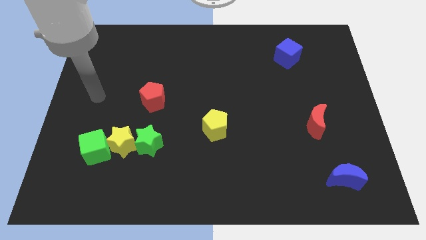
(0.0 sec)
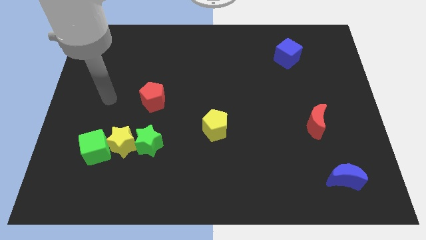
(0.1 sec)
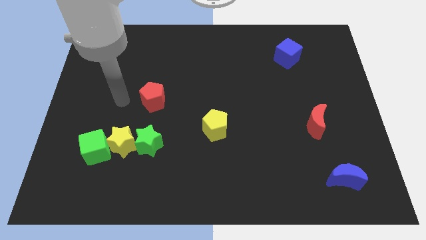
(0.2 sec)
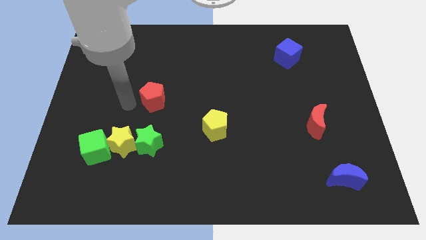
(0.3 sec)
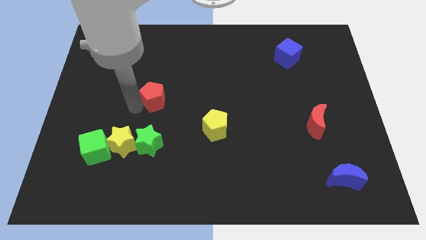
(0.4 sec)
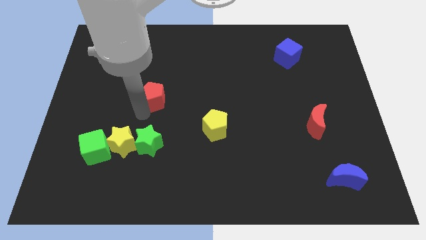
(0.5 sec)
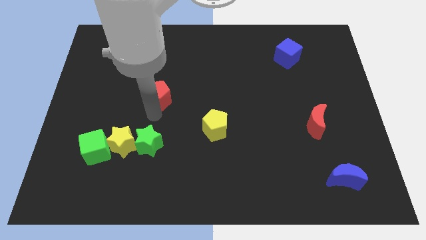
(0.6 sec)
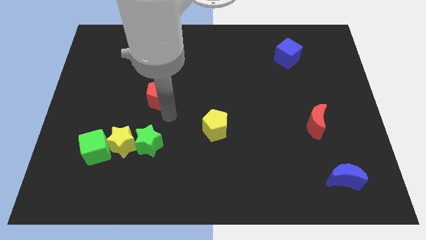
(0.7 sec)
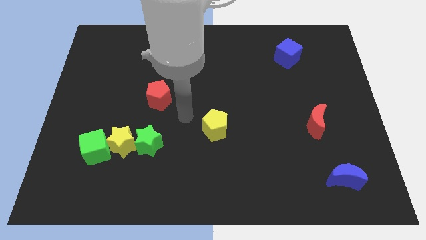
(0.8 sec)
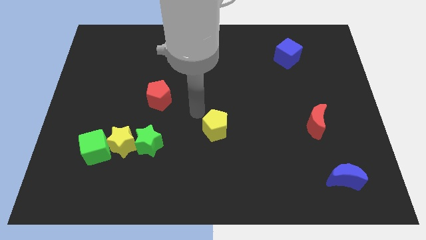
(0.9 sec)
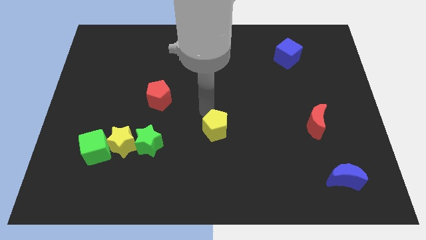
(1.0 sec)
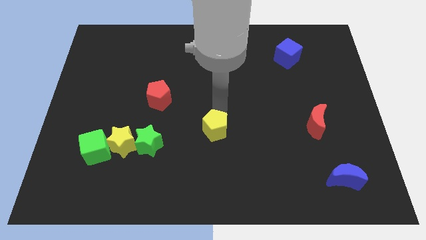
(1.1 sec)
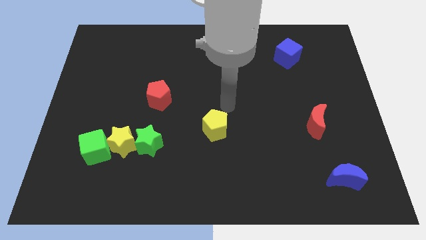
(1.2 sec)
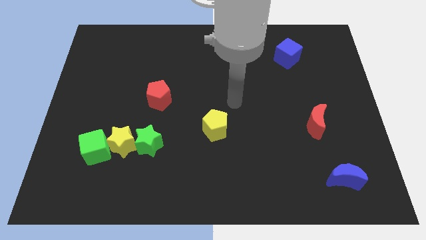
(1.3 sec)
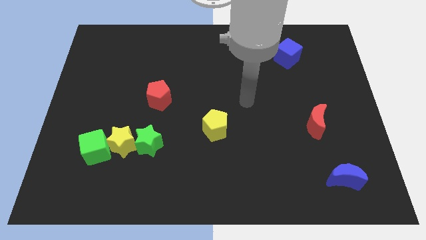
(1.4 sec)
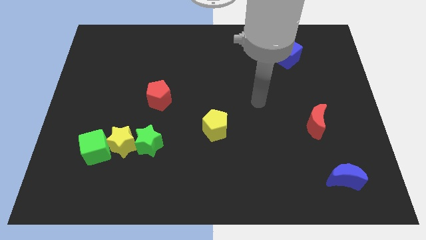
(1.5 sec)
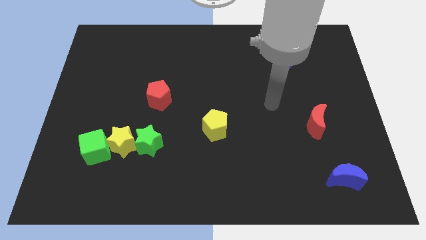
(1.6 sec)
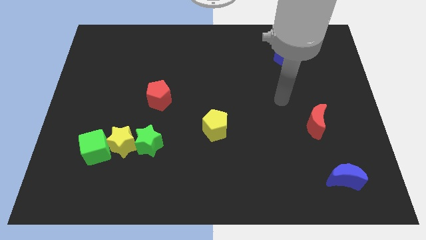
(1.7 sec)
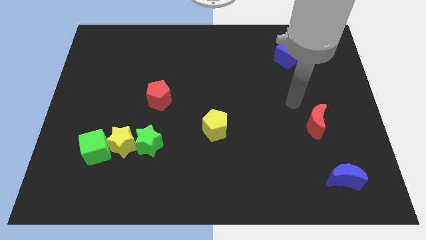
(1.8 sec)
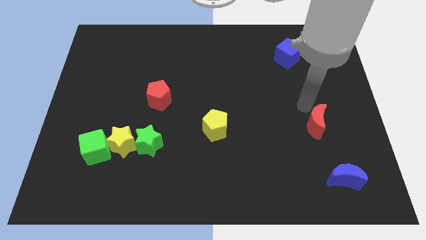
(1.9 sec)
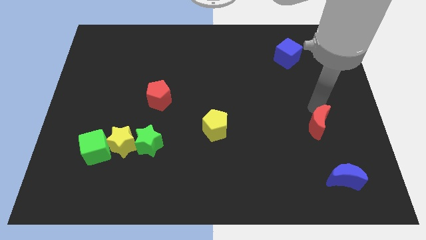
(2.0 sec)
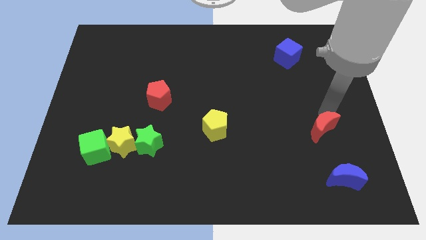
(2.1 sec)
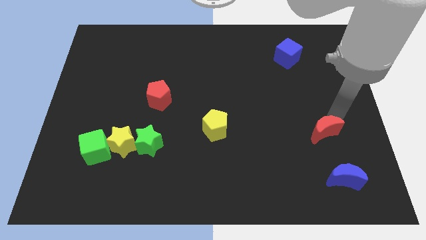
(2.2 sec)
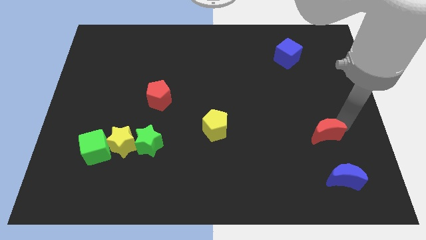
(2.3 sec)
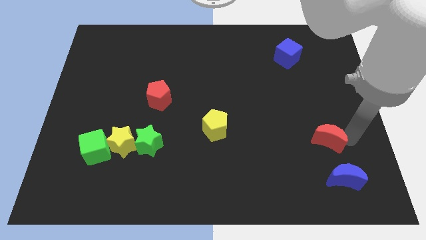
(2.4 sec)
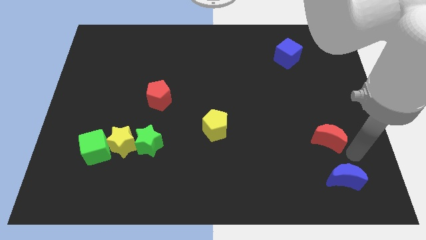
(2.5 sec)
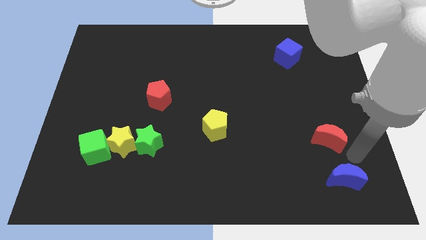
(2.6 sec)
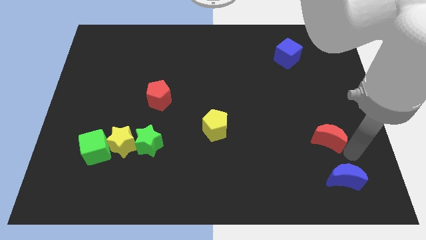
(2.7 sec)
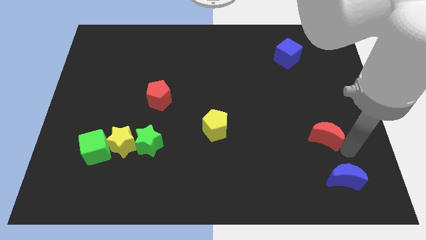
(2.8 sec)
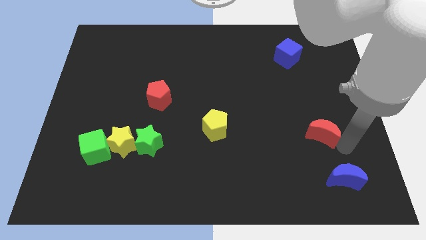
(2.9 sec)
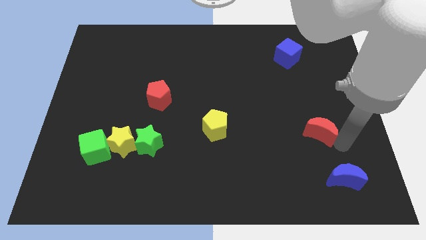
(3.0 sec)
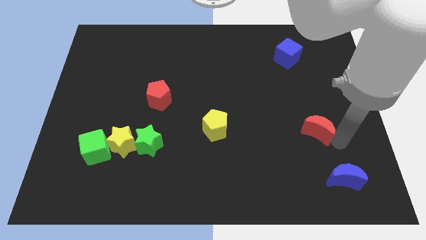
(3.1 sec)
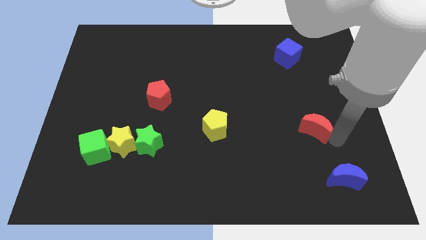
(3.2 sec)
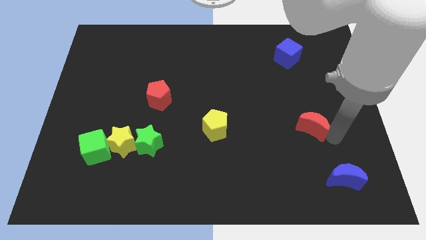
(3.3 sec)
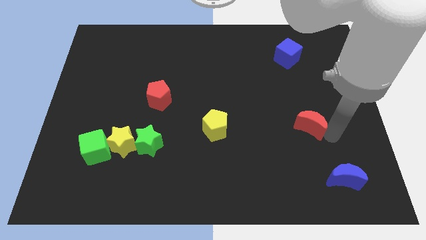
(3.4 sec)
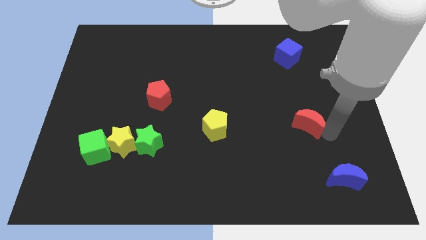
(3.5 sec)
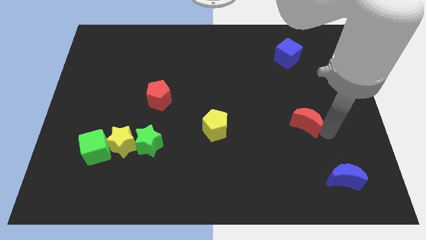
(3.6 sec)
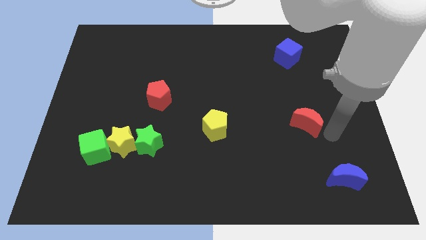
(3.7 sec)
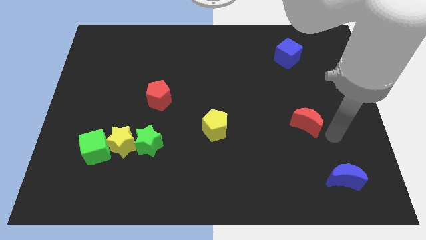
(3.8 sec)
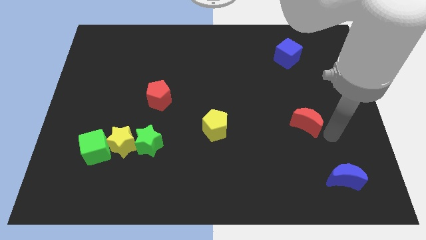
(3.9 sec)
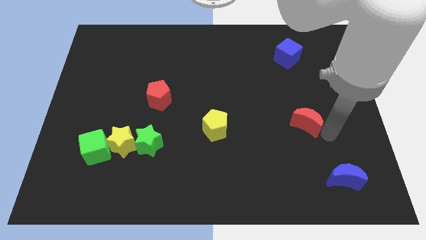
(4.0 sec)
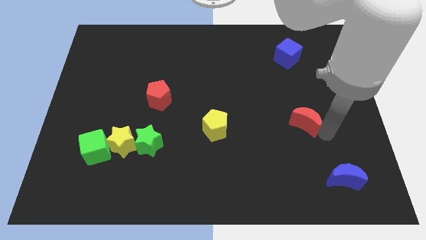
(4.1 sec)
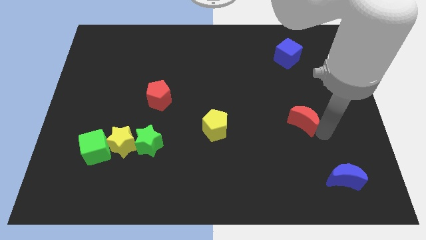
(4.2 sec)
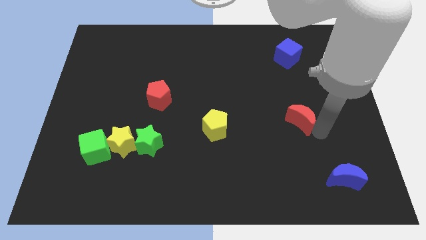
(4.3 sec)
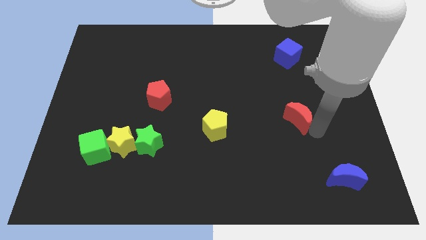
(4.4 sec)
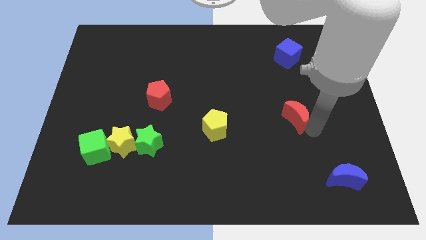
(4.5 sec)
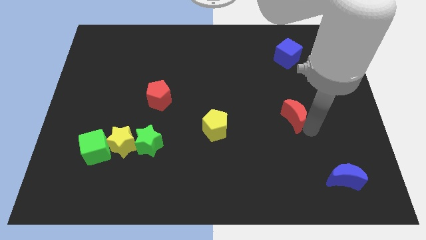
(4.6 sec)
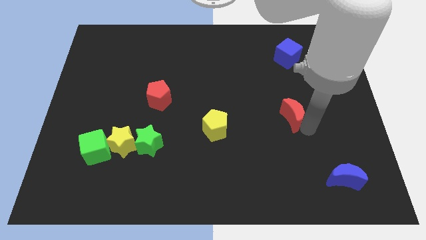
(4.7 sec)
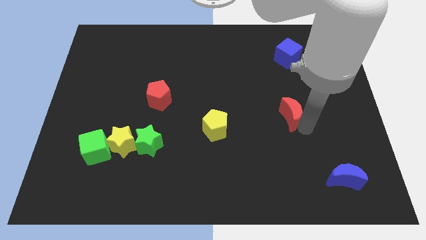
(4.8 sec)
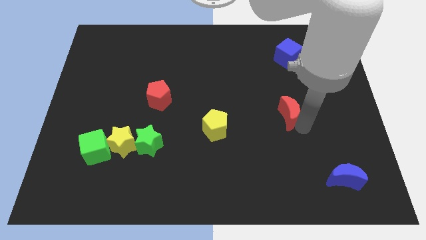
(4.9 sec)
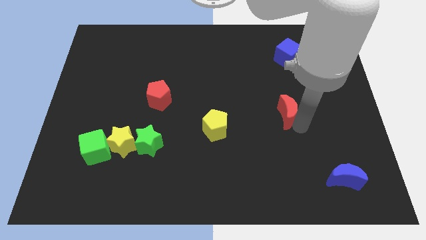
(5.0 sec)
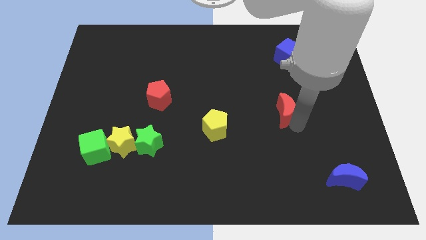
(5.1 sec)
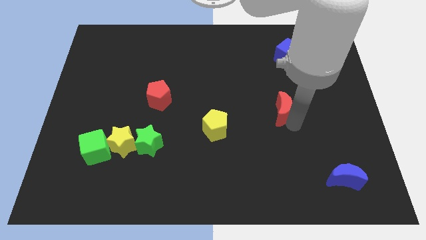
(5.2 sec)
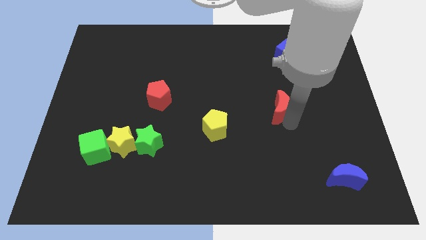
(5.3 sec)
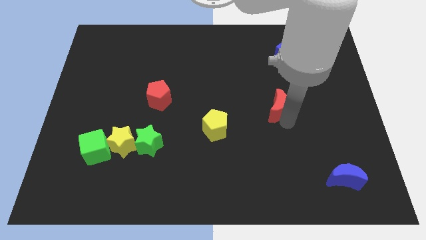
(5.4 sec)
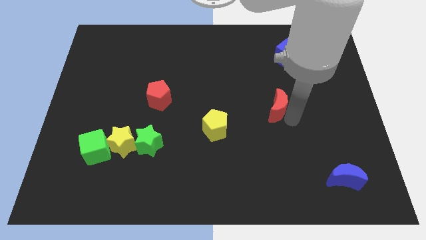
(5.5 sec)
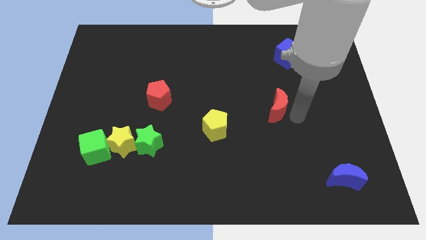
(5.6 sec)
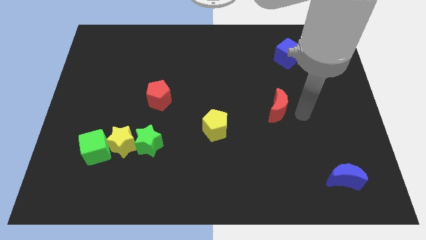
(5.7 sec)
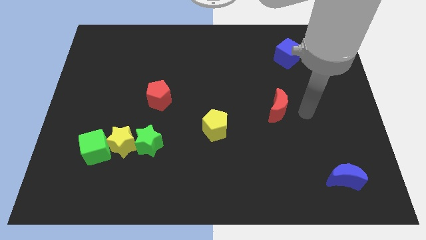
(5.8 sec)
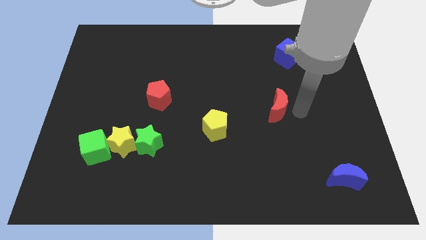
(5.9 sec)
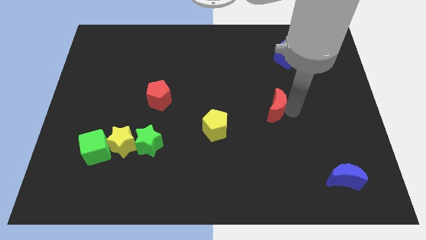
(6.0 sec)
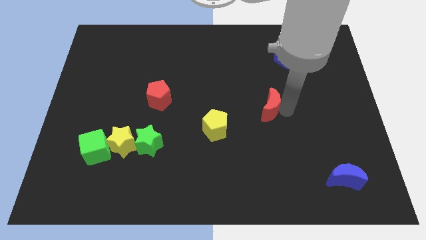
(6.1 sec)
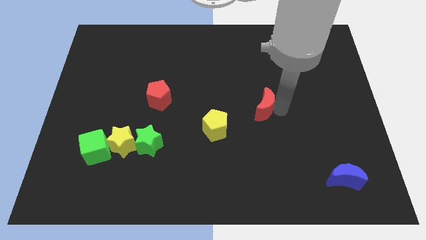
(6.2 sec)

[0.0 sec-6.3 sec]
move the red moon to the center

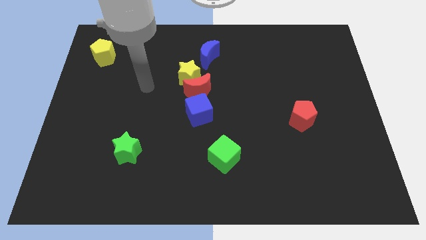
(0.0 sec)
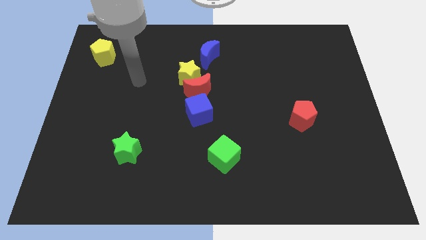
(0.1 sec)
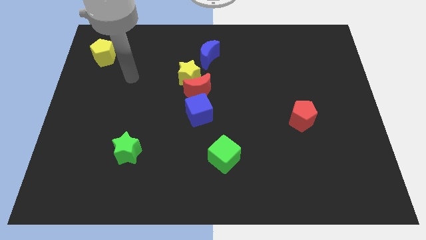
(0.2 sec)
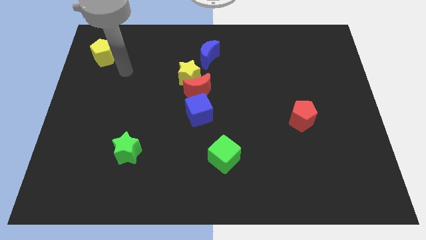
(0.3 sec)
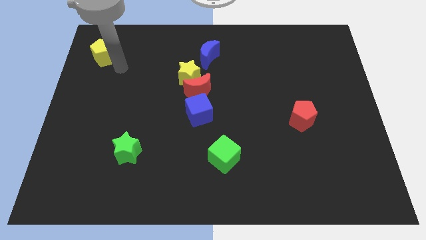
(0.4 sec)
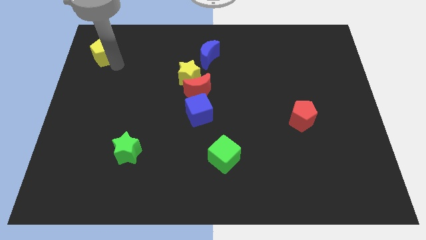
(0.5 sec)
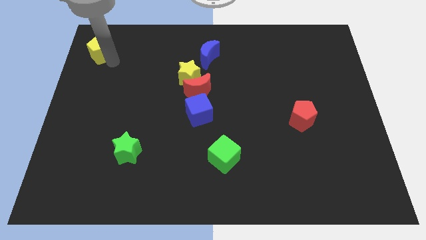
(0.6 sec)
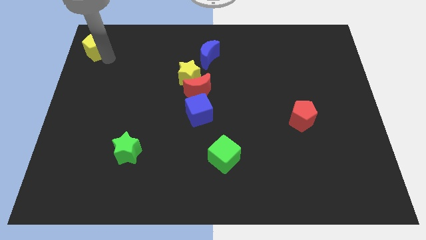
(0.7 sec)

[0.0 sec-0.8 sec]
slide the yellow pentagon to the top left
